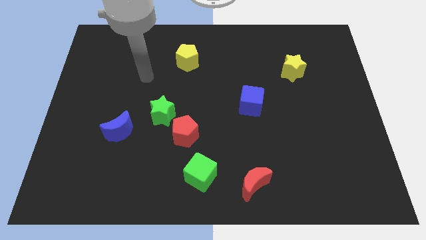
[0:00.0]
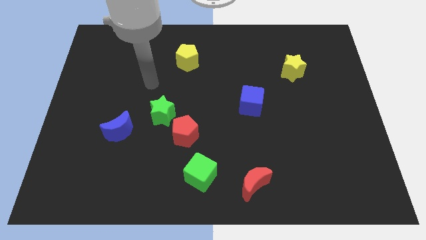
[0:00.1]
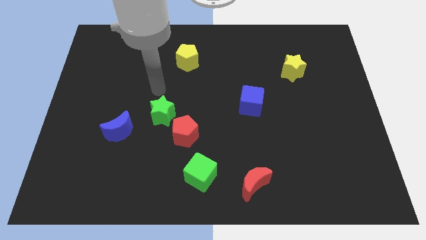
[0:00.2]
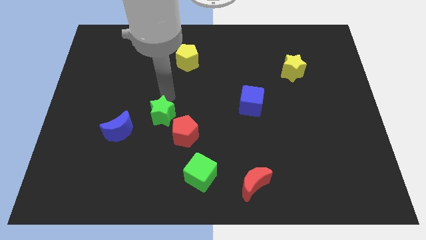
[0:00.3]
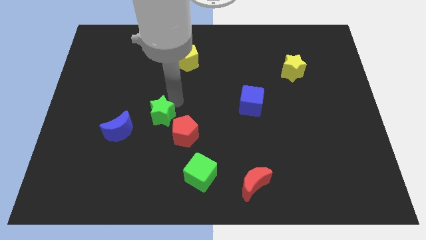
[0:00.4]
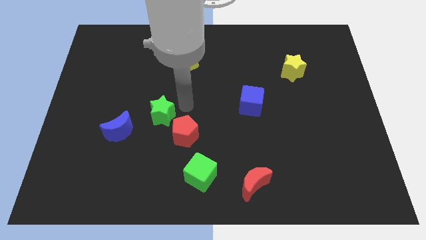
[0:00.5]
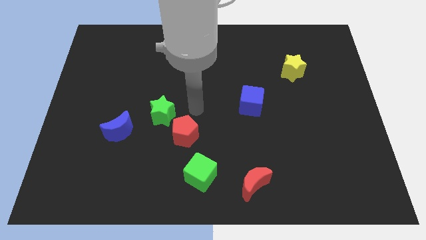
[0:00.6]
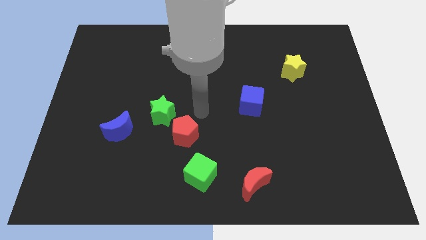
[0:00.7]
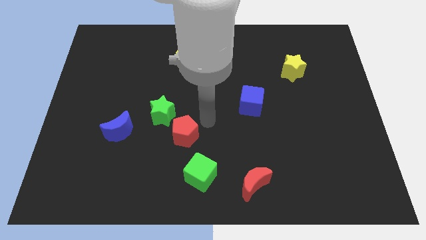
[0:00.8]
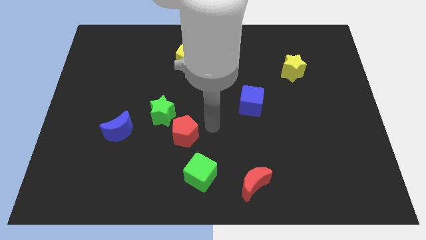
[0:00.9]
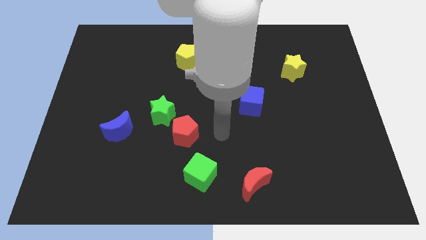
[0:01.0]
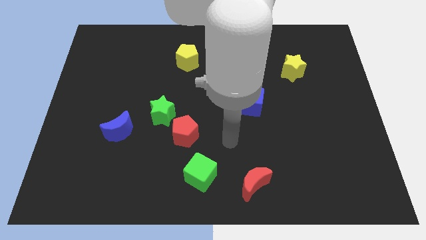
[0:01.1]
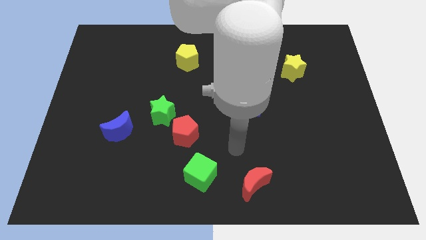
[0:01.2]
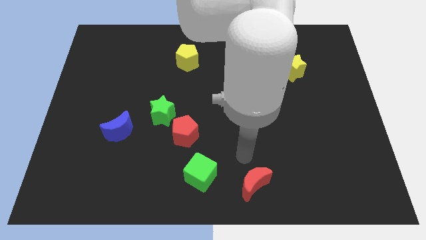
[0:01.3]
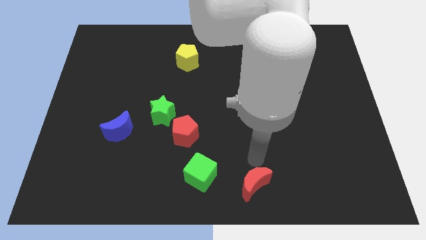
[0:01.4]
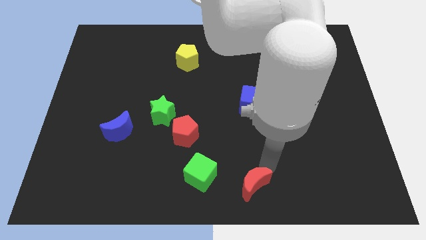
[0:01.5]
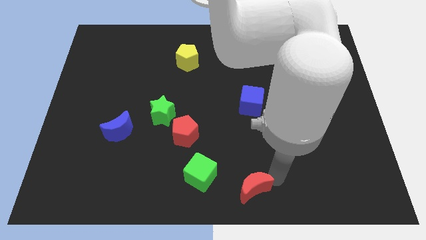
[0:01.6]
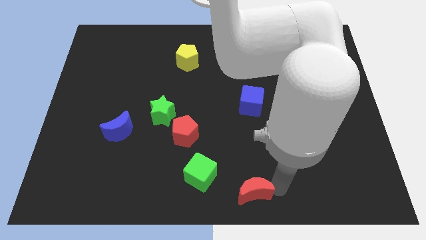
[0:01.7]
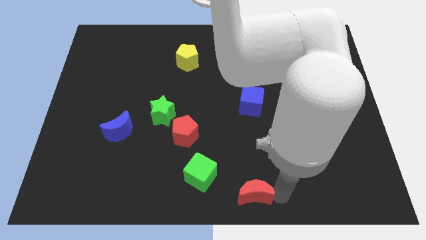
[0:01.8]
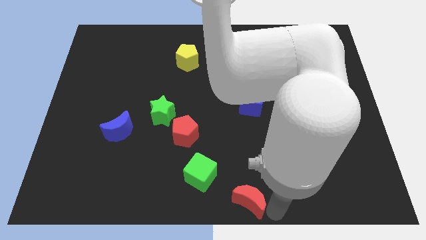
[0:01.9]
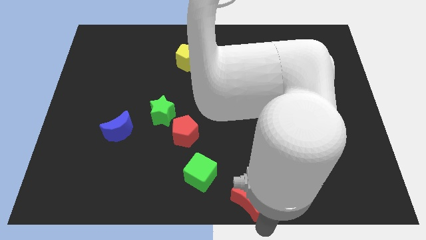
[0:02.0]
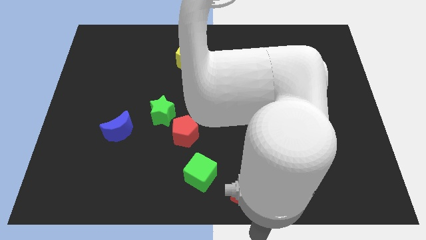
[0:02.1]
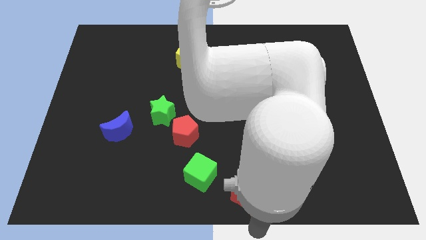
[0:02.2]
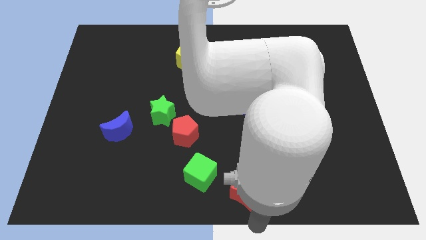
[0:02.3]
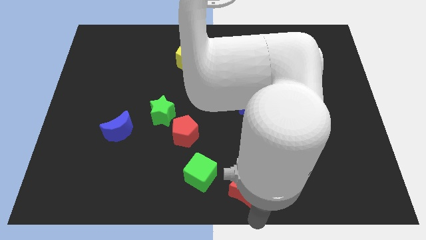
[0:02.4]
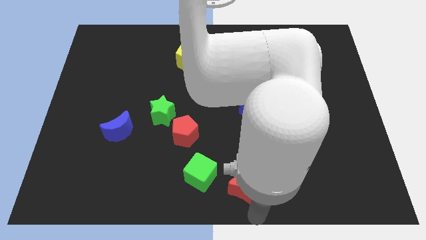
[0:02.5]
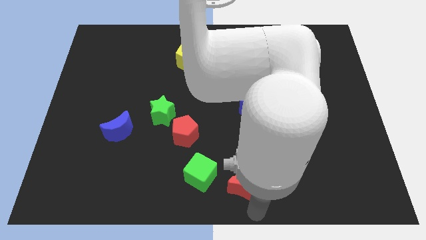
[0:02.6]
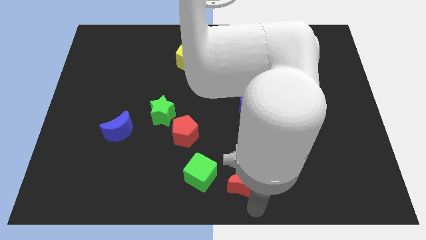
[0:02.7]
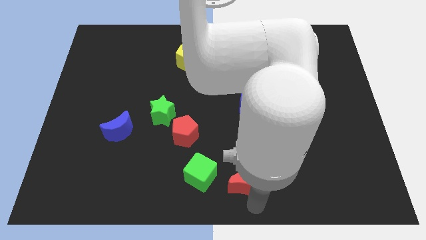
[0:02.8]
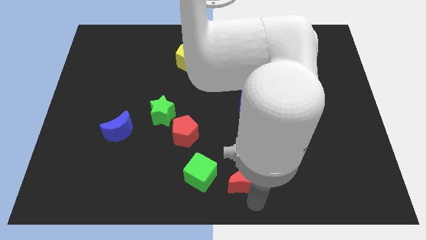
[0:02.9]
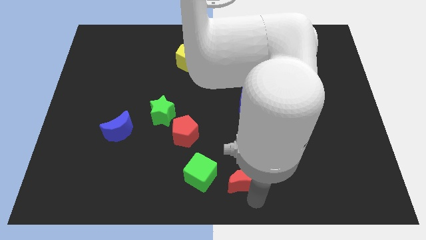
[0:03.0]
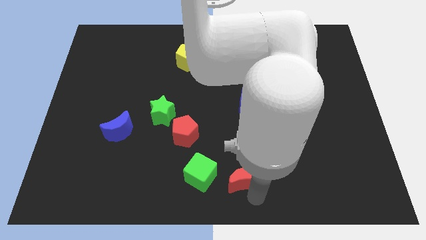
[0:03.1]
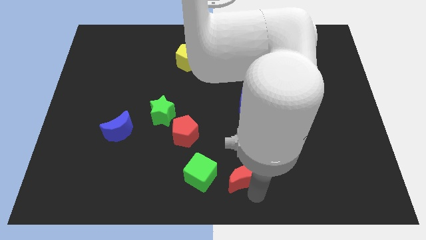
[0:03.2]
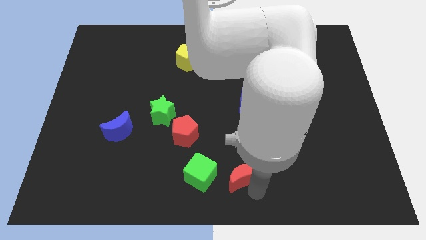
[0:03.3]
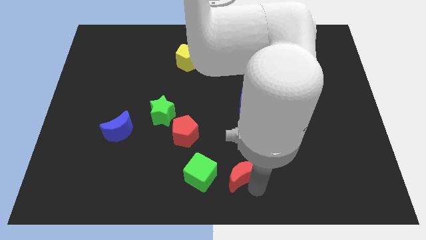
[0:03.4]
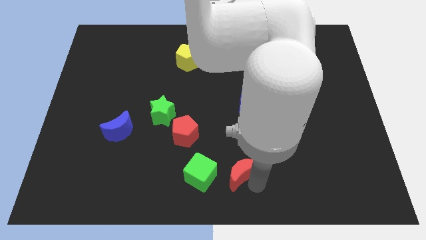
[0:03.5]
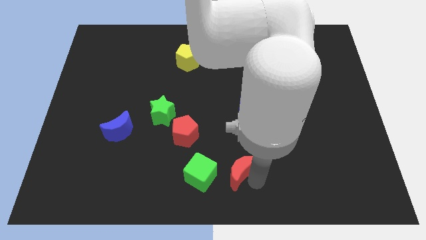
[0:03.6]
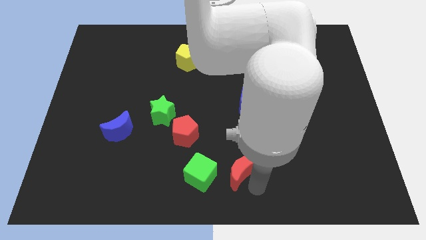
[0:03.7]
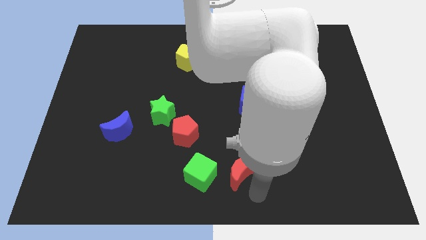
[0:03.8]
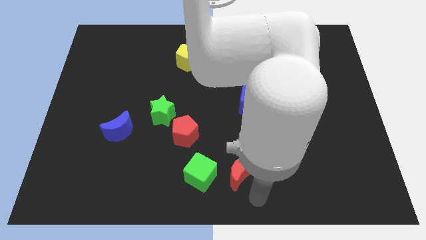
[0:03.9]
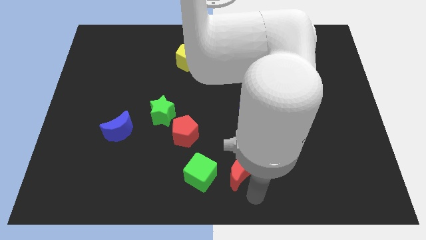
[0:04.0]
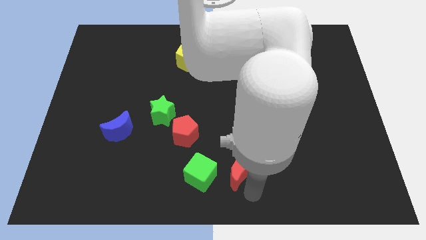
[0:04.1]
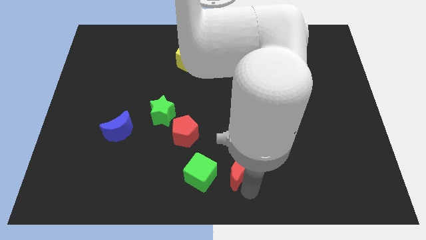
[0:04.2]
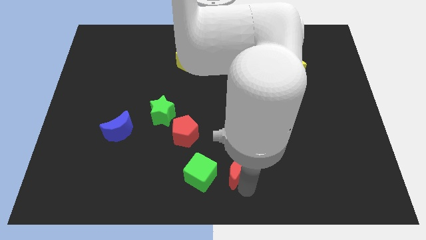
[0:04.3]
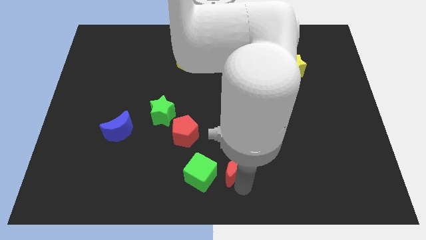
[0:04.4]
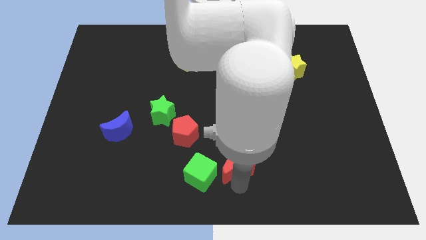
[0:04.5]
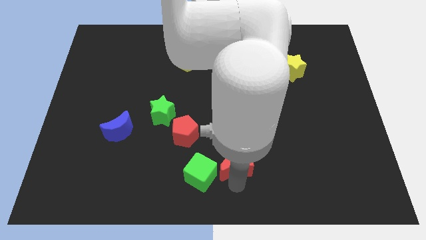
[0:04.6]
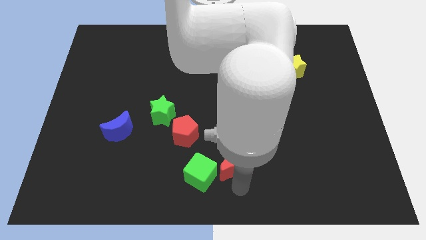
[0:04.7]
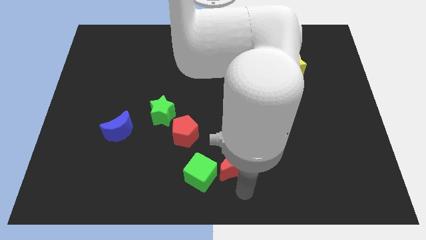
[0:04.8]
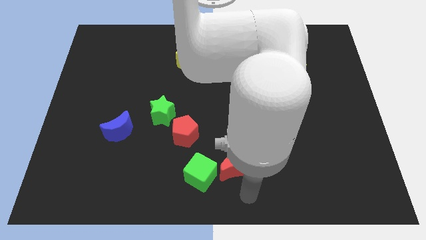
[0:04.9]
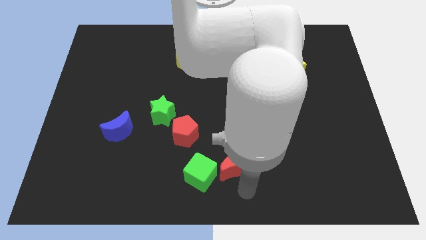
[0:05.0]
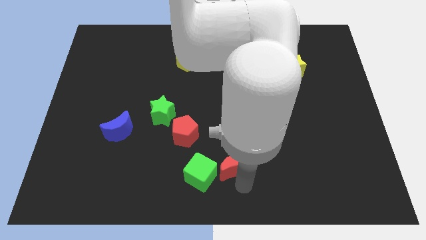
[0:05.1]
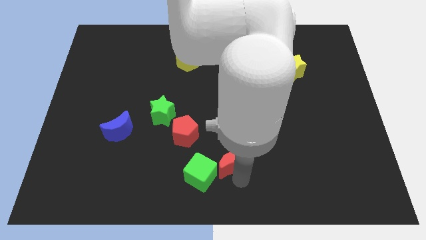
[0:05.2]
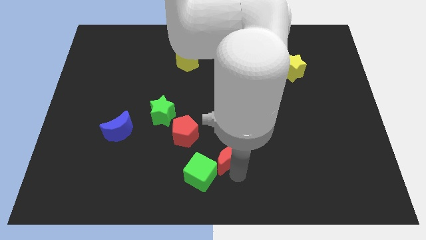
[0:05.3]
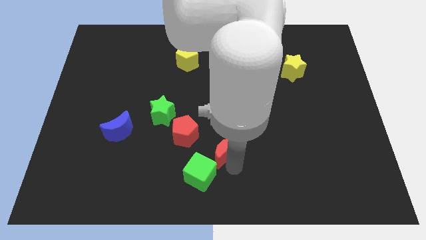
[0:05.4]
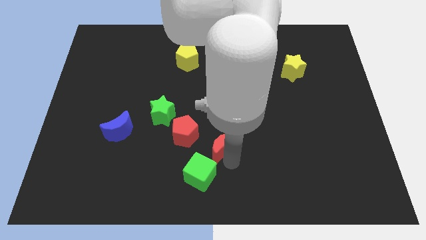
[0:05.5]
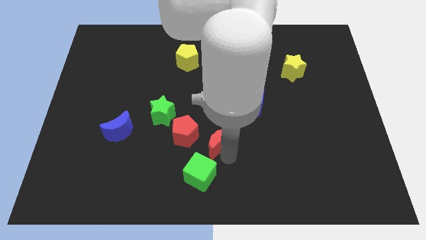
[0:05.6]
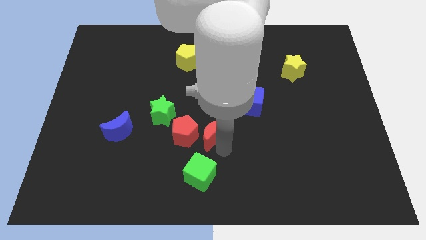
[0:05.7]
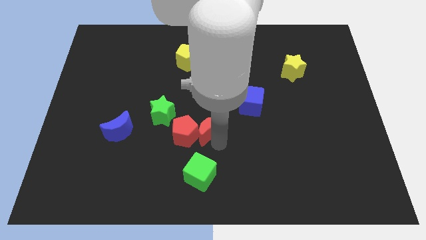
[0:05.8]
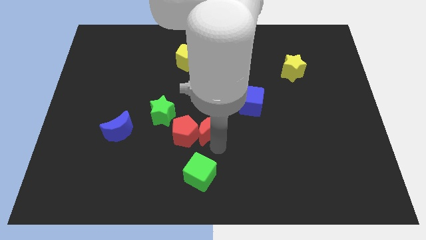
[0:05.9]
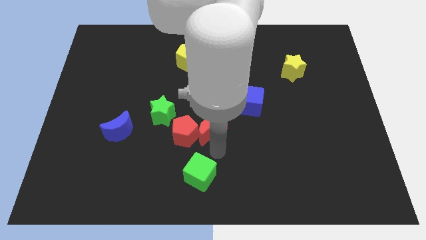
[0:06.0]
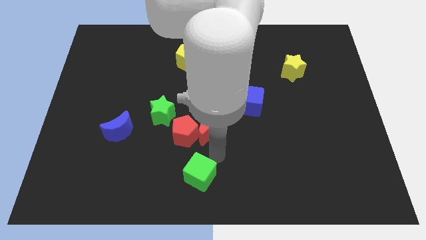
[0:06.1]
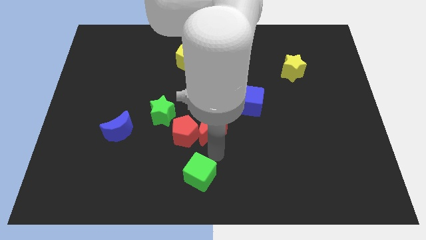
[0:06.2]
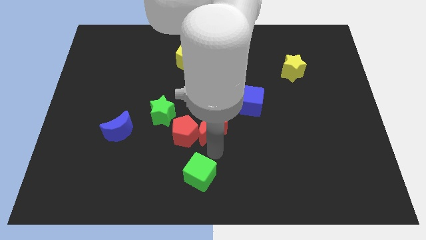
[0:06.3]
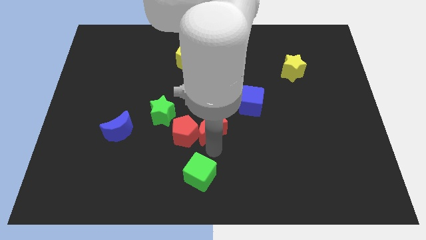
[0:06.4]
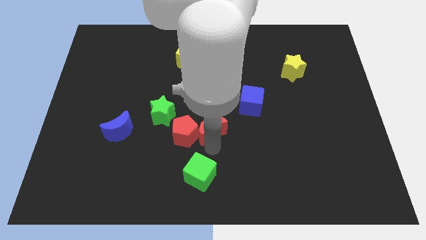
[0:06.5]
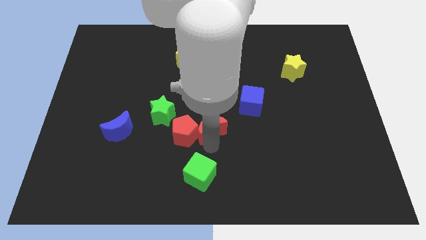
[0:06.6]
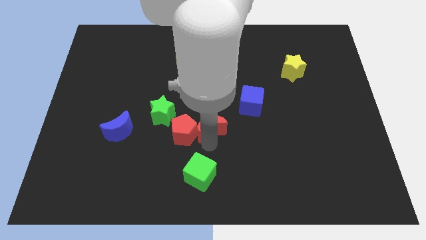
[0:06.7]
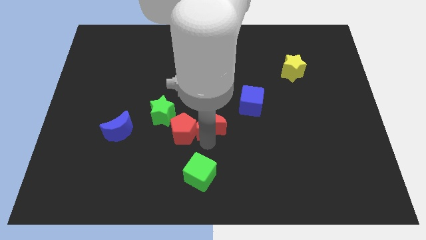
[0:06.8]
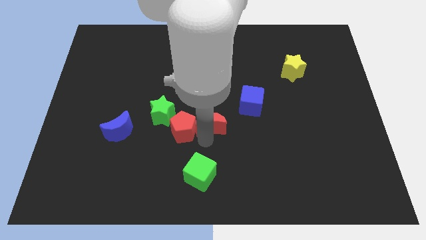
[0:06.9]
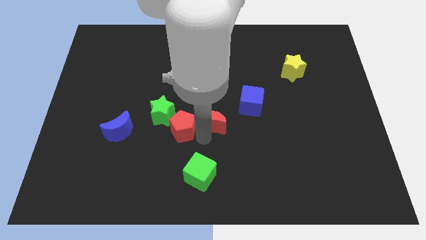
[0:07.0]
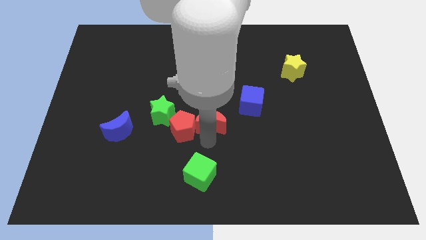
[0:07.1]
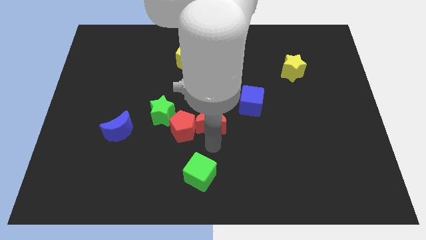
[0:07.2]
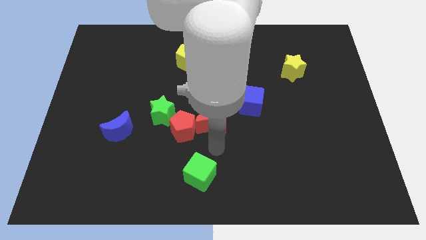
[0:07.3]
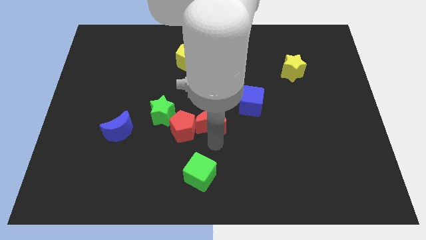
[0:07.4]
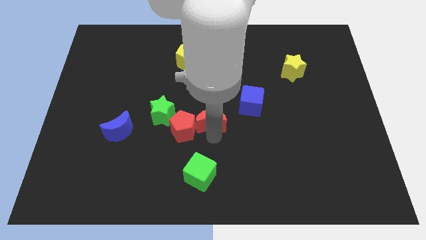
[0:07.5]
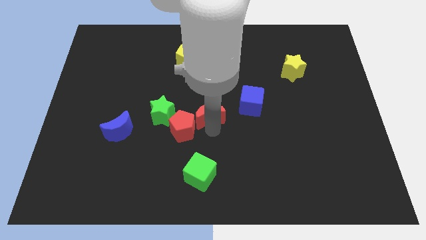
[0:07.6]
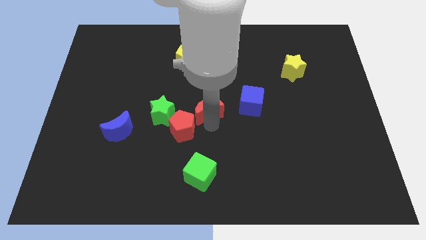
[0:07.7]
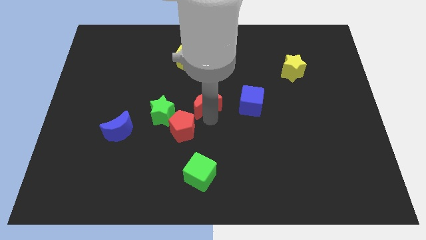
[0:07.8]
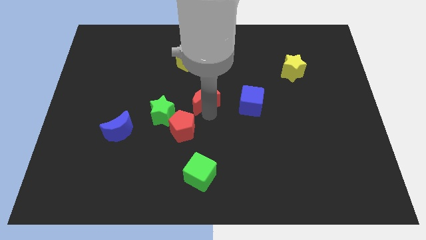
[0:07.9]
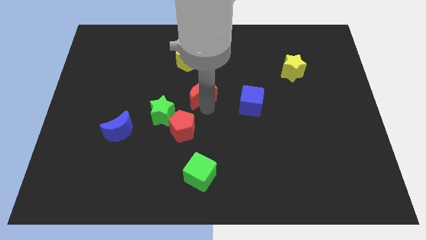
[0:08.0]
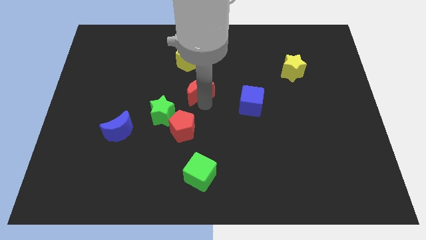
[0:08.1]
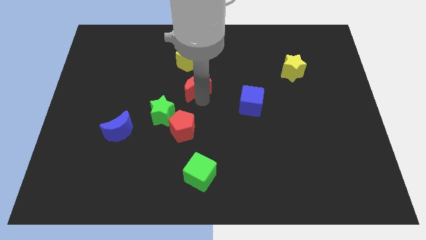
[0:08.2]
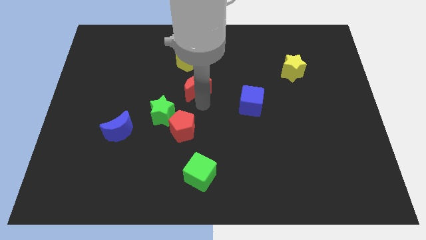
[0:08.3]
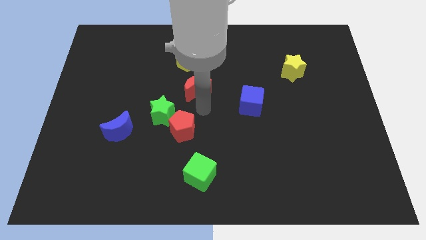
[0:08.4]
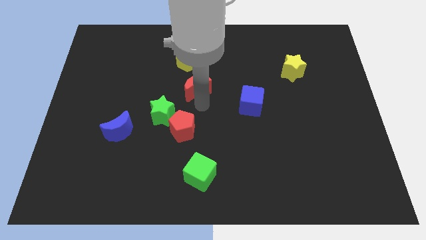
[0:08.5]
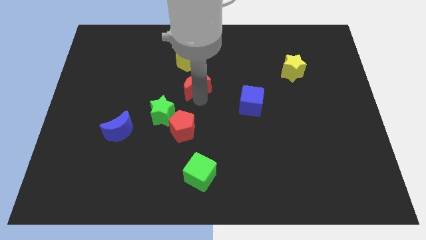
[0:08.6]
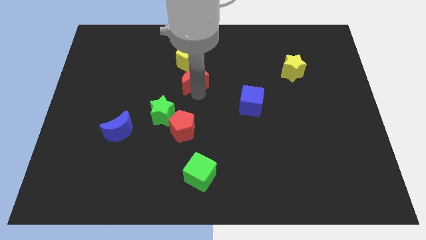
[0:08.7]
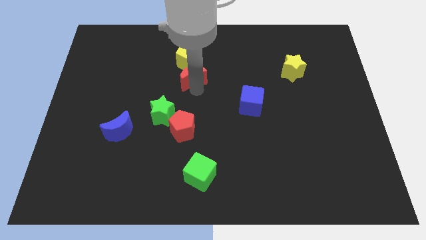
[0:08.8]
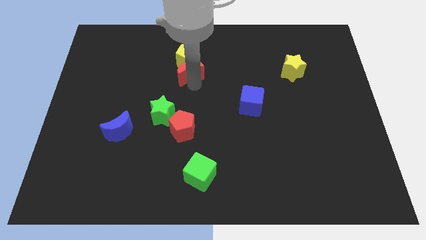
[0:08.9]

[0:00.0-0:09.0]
move the red moon to the yellow pentagon
